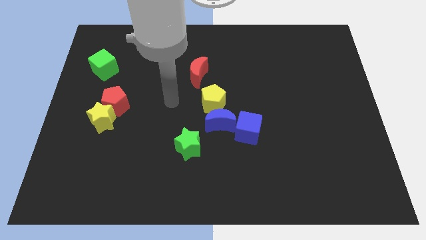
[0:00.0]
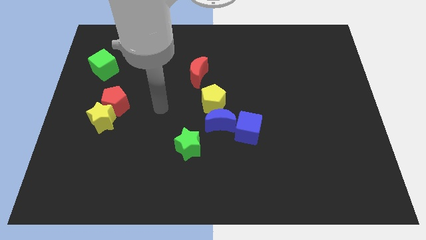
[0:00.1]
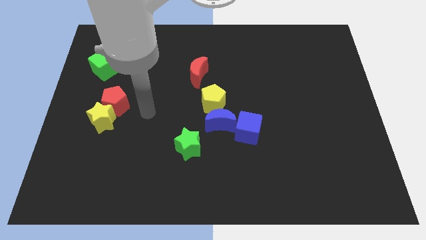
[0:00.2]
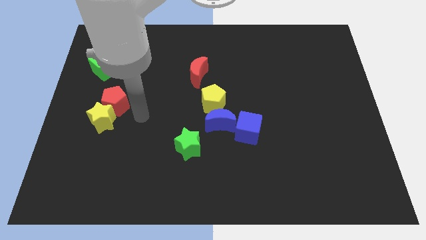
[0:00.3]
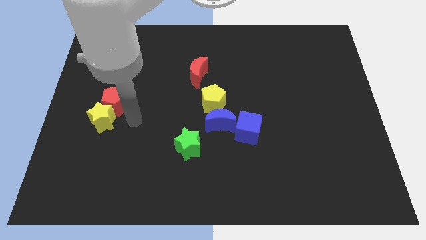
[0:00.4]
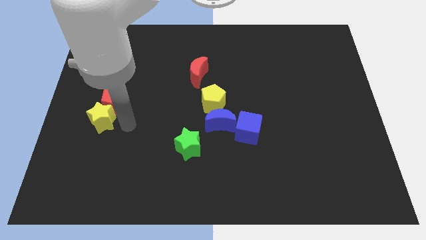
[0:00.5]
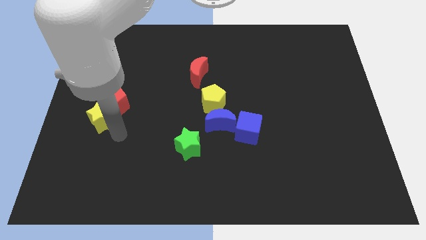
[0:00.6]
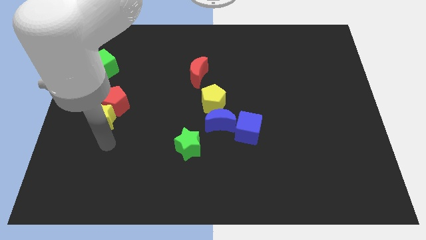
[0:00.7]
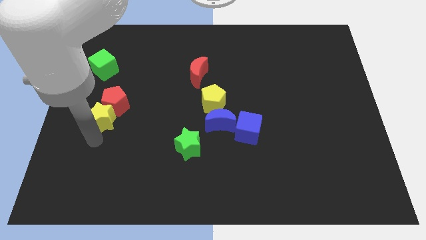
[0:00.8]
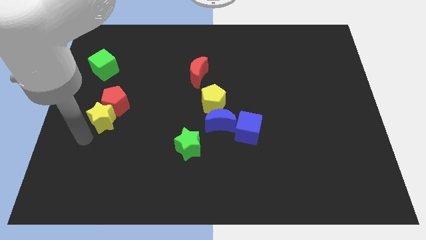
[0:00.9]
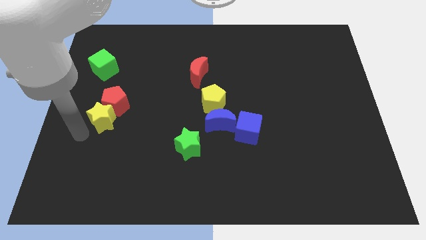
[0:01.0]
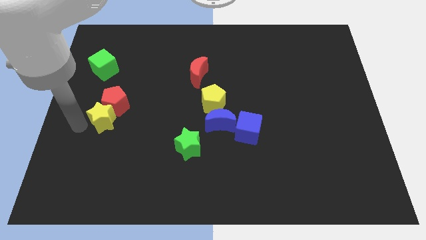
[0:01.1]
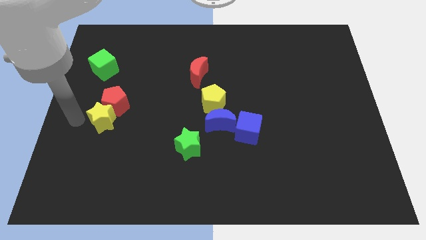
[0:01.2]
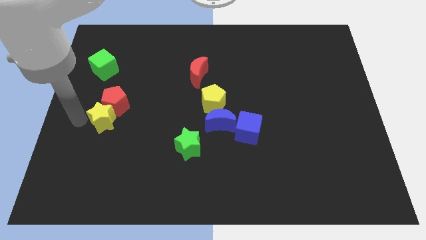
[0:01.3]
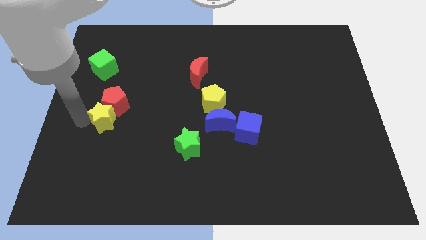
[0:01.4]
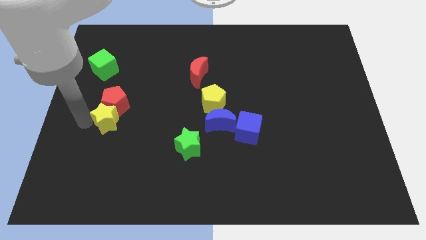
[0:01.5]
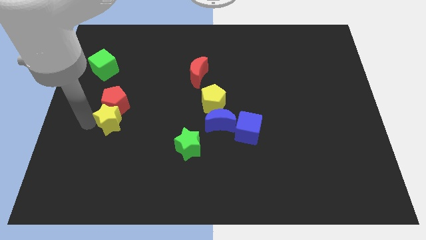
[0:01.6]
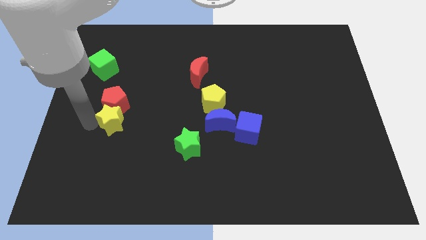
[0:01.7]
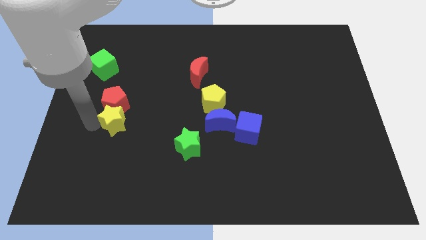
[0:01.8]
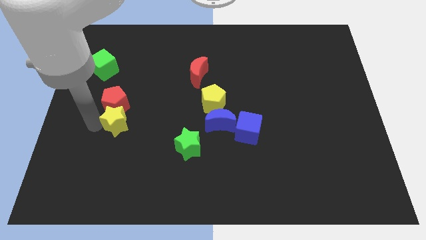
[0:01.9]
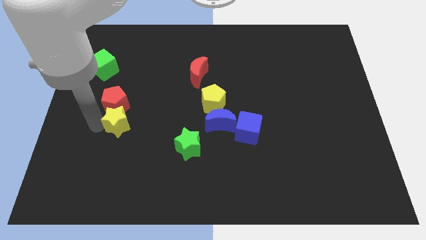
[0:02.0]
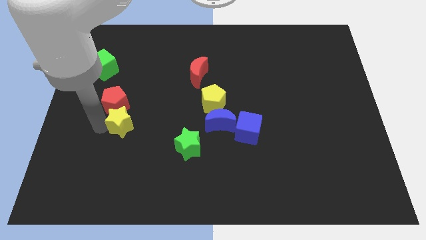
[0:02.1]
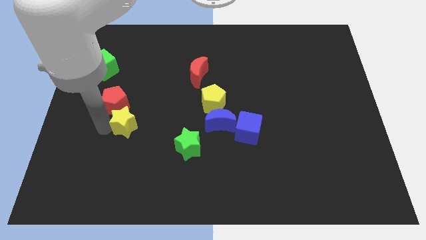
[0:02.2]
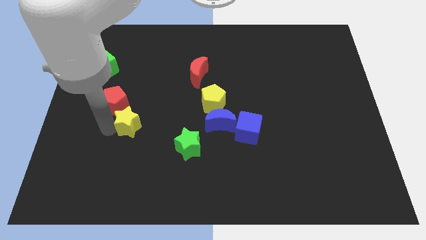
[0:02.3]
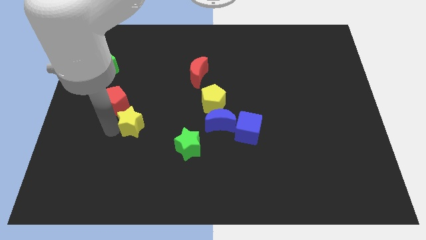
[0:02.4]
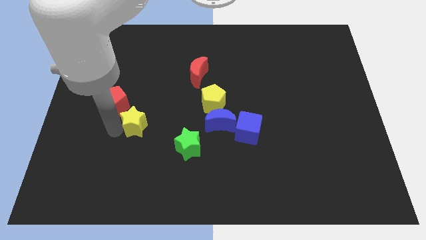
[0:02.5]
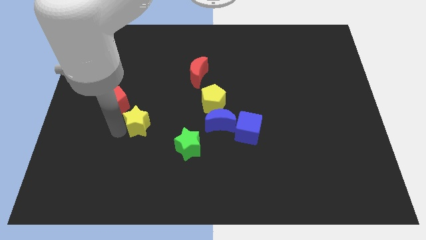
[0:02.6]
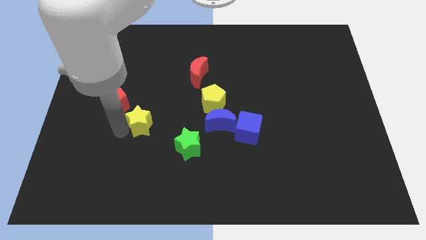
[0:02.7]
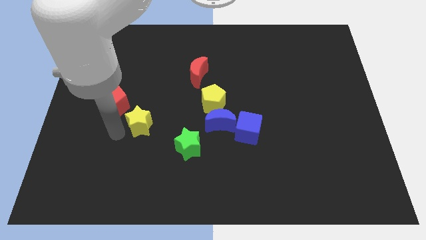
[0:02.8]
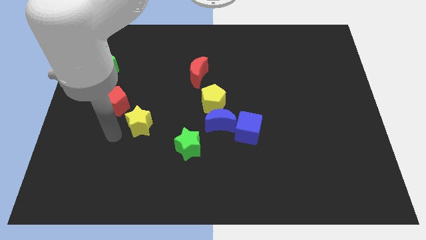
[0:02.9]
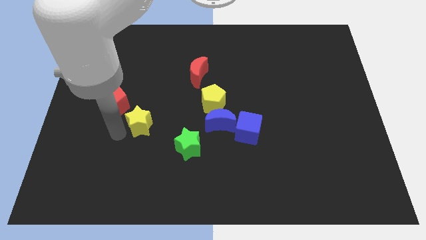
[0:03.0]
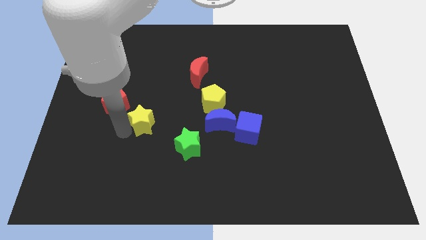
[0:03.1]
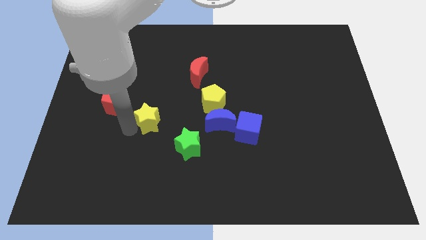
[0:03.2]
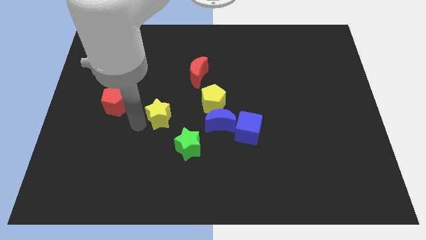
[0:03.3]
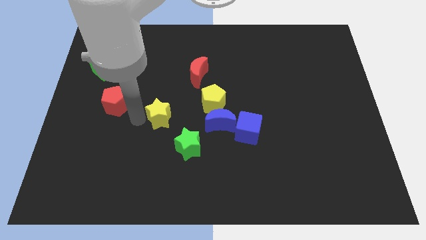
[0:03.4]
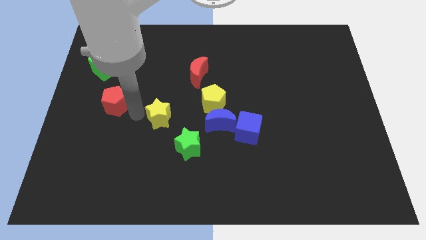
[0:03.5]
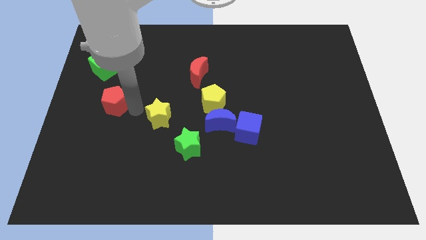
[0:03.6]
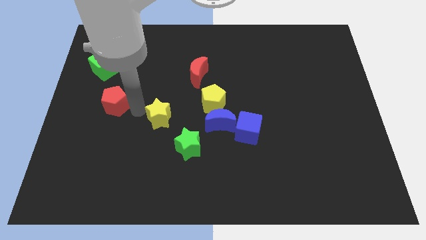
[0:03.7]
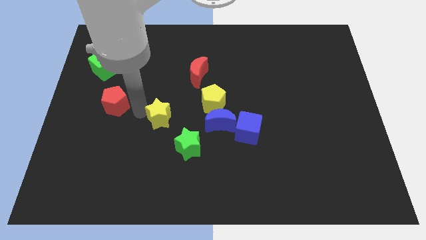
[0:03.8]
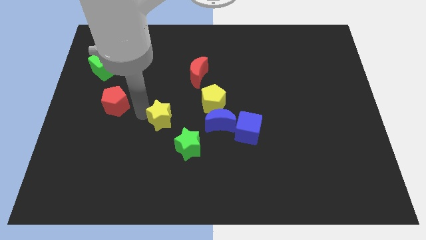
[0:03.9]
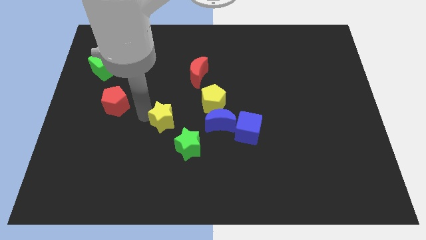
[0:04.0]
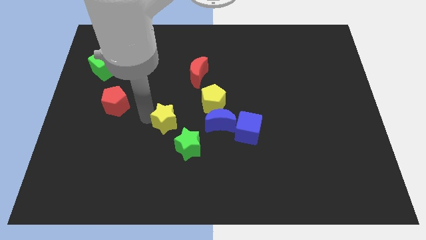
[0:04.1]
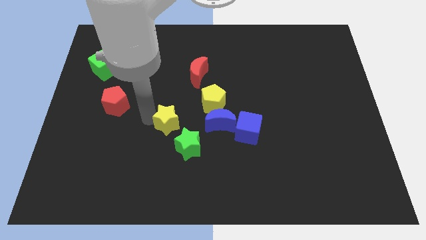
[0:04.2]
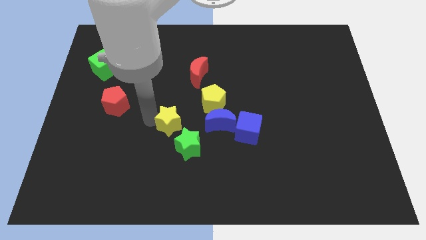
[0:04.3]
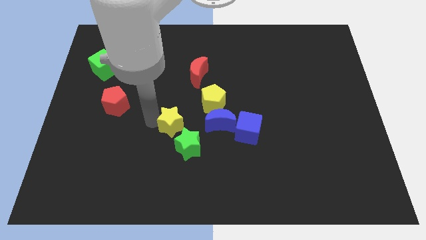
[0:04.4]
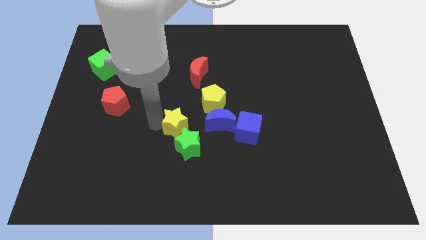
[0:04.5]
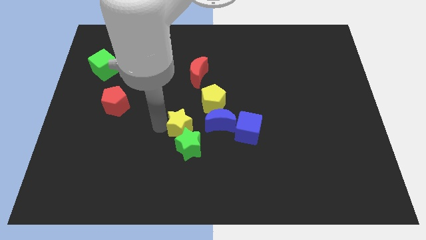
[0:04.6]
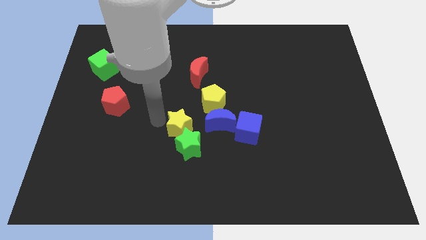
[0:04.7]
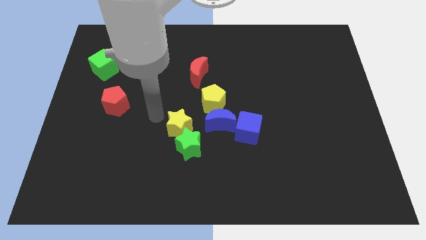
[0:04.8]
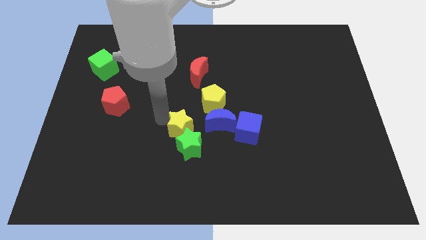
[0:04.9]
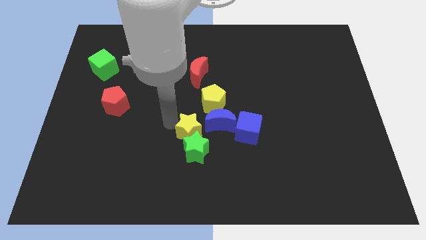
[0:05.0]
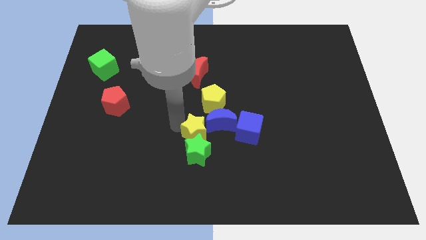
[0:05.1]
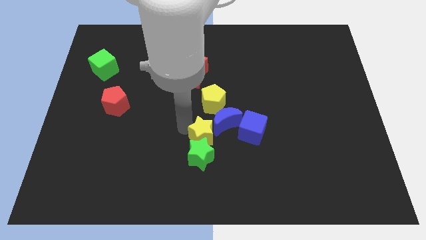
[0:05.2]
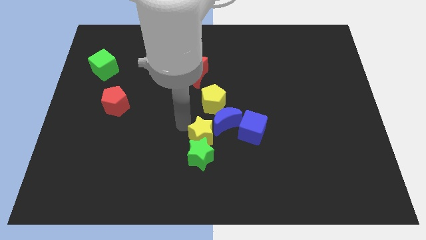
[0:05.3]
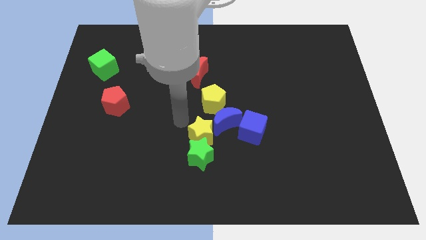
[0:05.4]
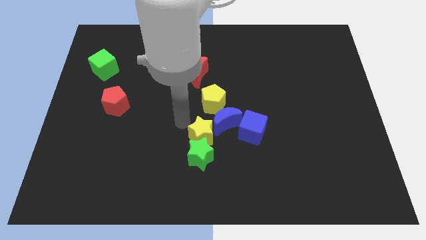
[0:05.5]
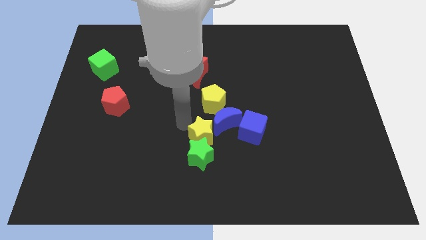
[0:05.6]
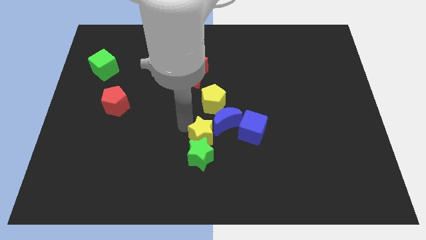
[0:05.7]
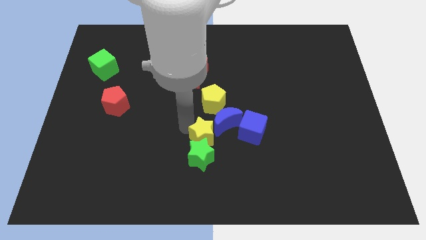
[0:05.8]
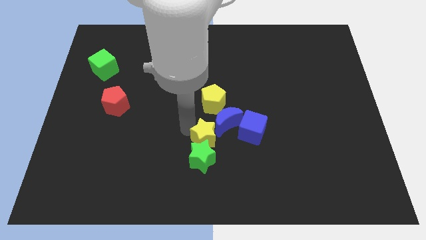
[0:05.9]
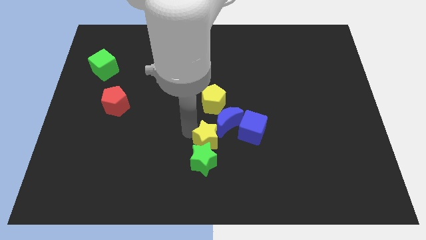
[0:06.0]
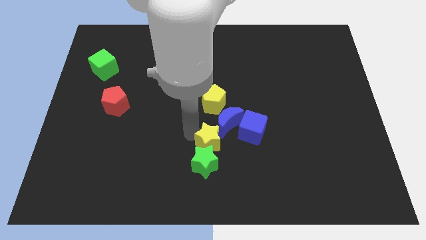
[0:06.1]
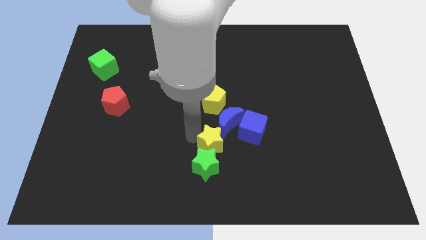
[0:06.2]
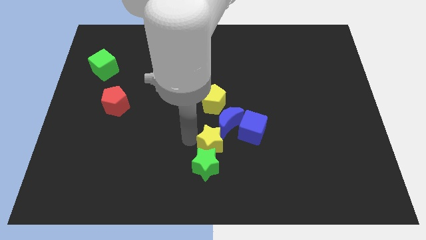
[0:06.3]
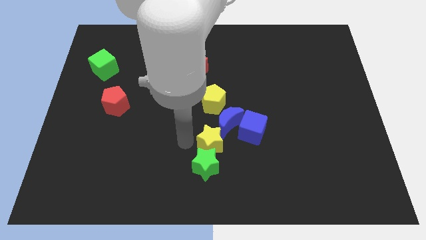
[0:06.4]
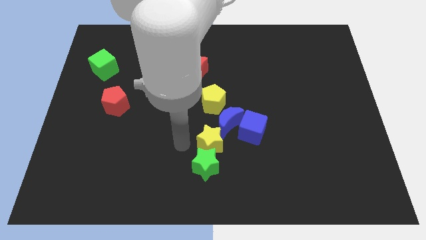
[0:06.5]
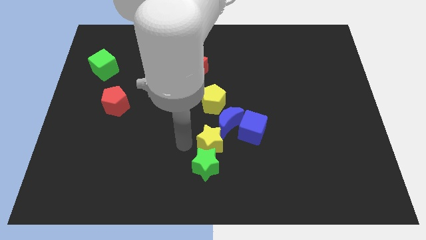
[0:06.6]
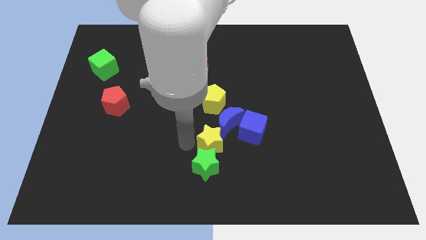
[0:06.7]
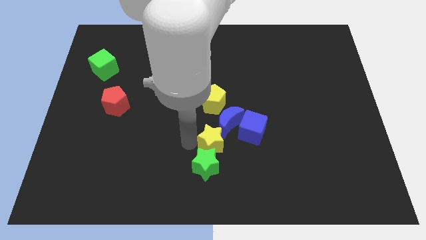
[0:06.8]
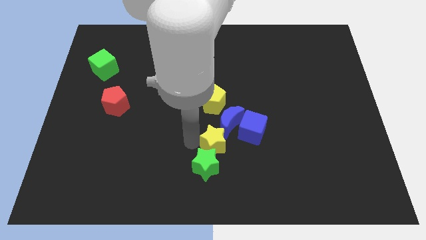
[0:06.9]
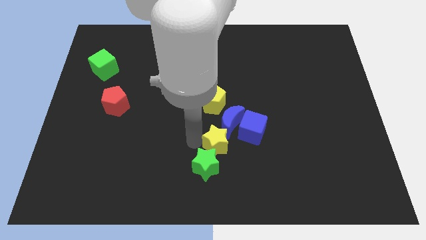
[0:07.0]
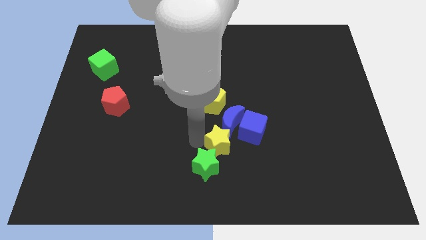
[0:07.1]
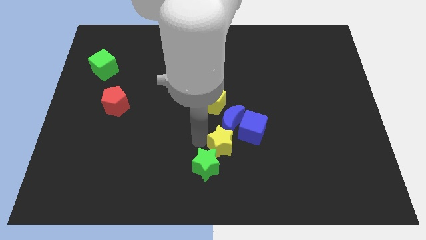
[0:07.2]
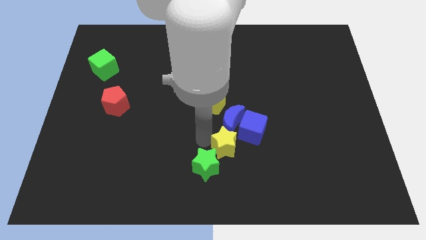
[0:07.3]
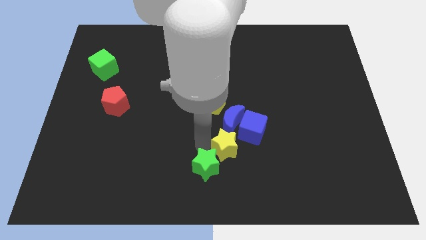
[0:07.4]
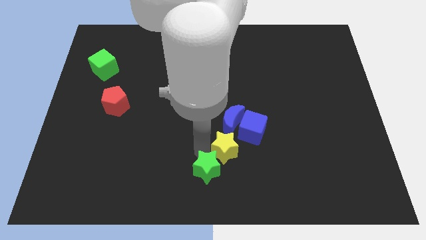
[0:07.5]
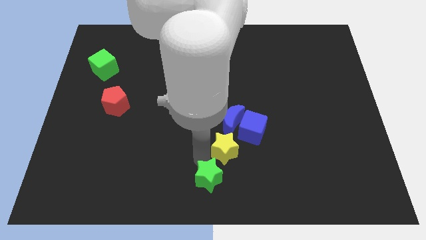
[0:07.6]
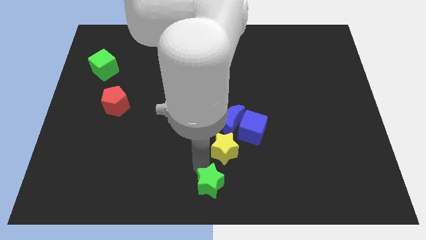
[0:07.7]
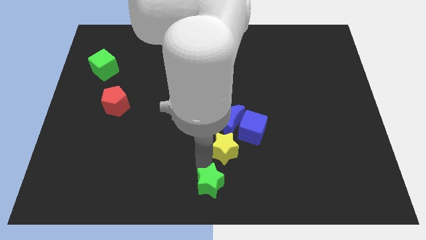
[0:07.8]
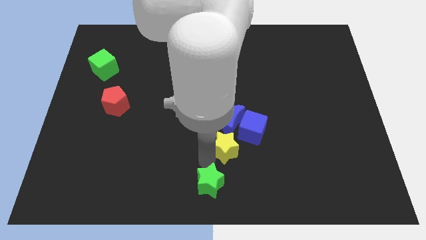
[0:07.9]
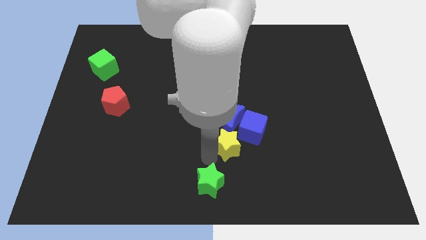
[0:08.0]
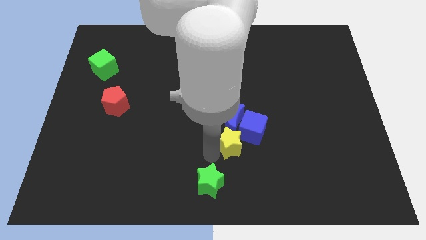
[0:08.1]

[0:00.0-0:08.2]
slide the yellow star to the blue cube
